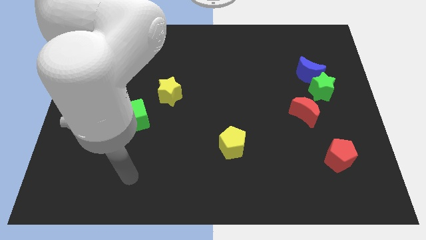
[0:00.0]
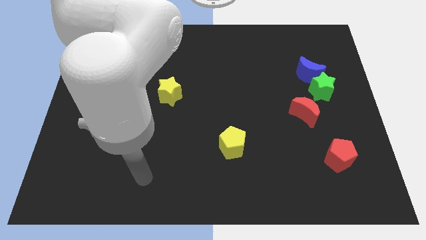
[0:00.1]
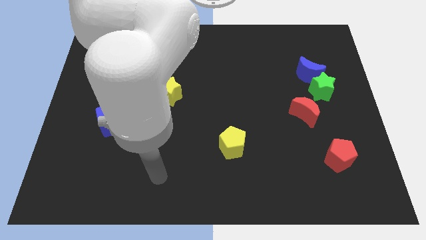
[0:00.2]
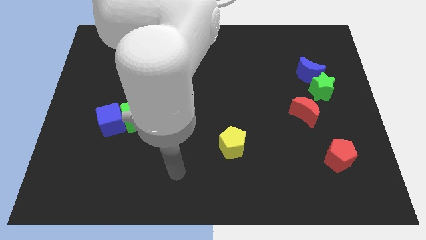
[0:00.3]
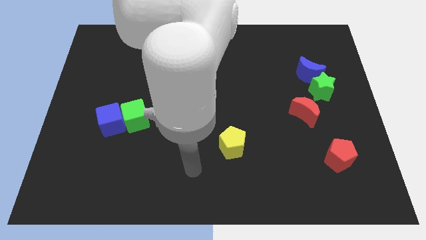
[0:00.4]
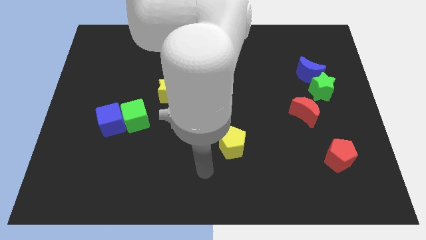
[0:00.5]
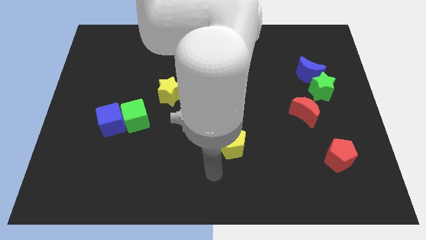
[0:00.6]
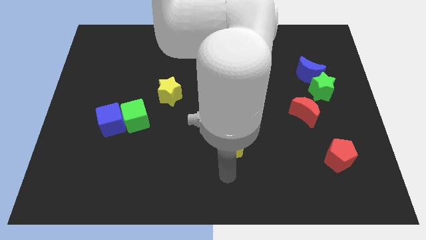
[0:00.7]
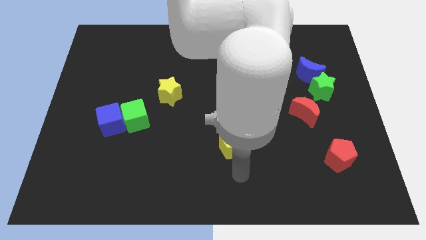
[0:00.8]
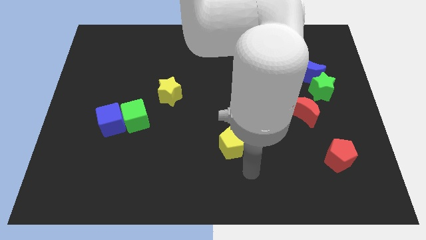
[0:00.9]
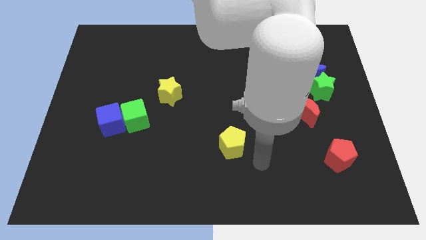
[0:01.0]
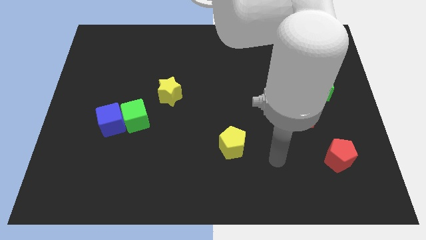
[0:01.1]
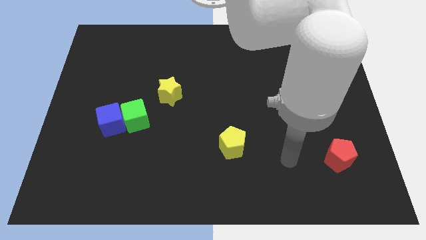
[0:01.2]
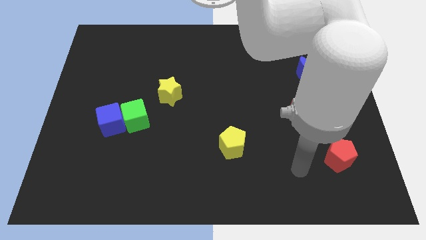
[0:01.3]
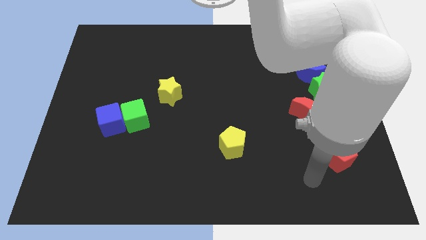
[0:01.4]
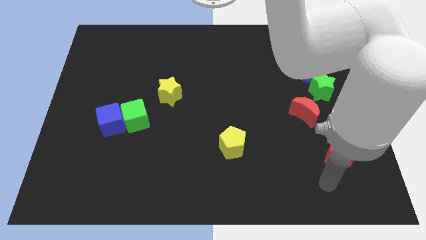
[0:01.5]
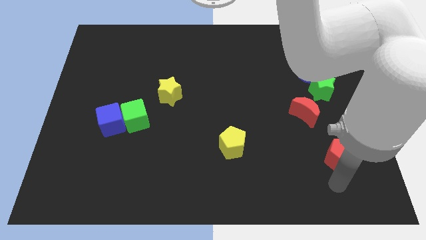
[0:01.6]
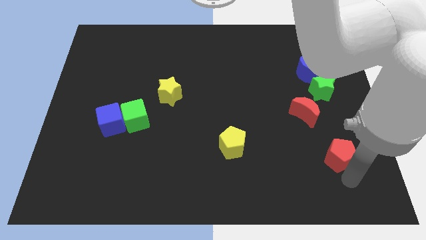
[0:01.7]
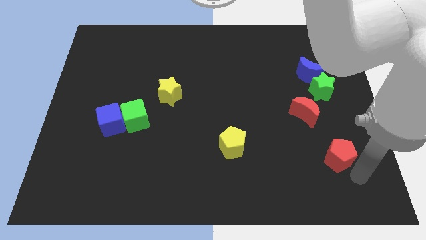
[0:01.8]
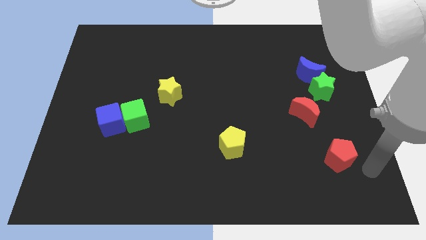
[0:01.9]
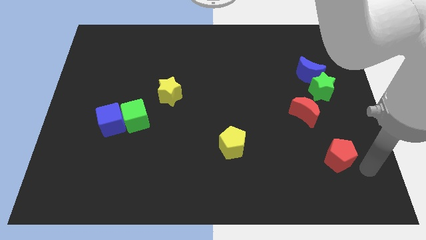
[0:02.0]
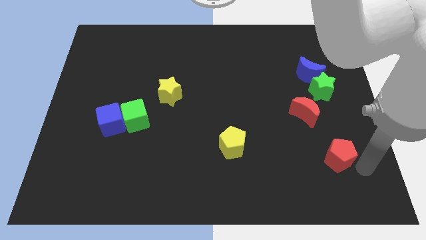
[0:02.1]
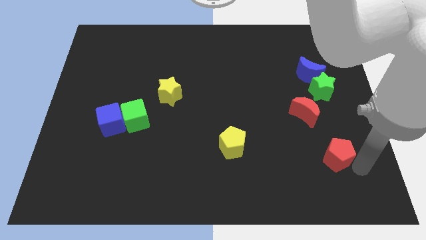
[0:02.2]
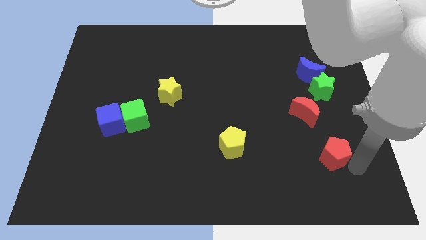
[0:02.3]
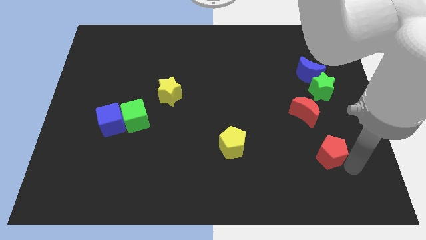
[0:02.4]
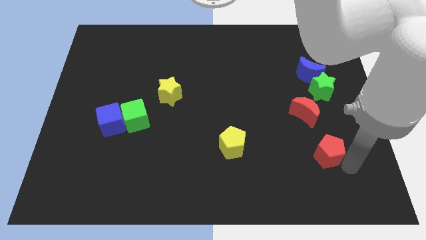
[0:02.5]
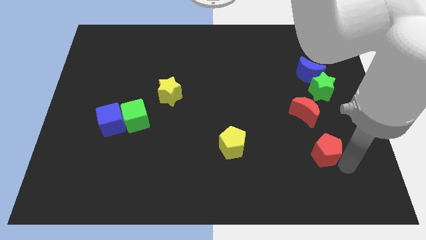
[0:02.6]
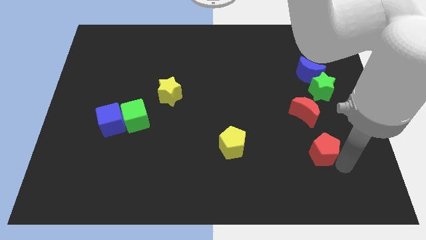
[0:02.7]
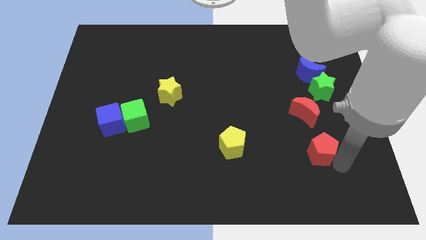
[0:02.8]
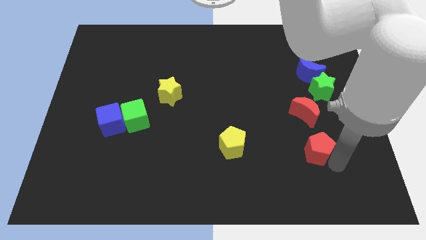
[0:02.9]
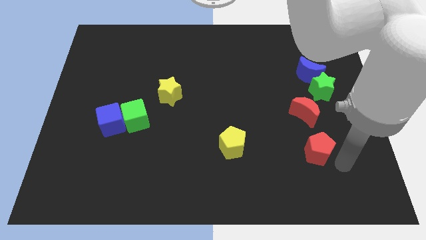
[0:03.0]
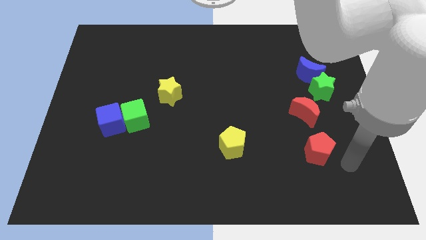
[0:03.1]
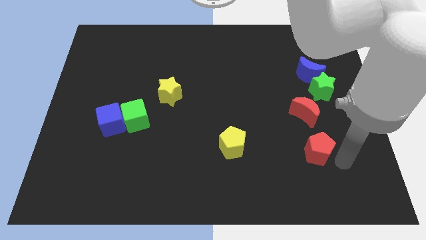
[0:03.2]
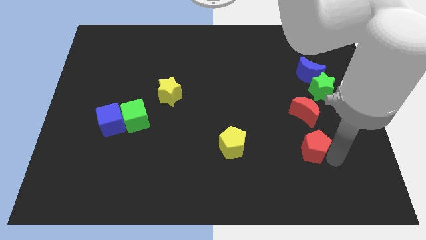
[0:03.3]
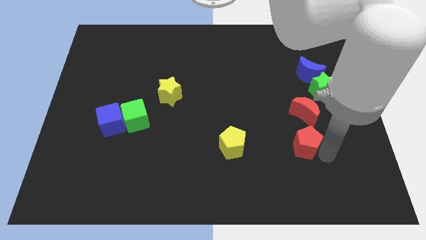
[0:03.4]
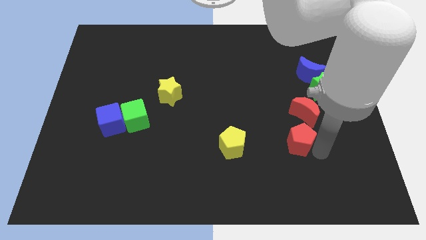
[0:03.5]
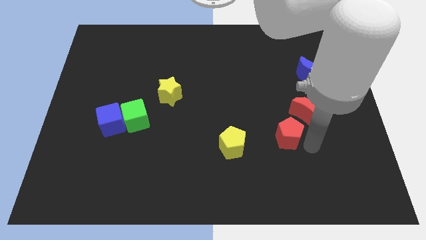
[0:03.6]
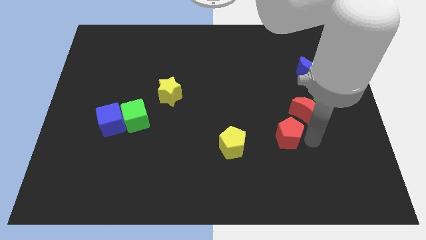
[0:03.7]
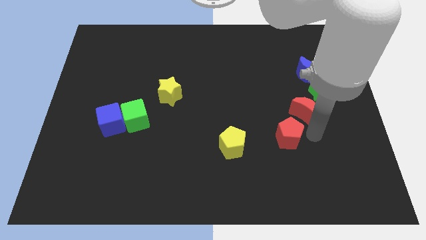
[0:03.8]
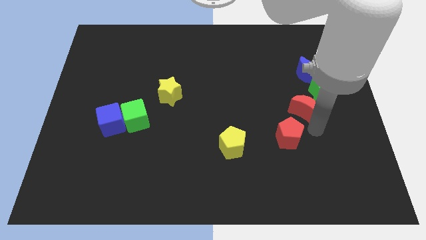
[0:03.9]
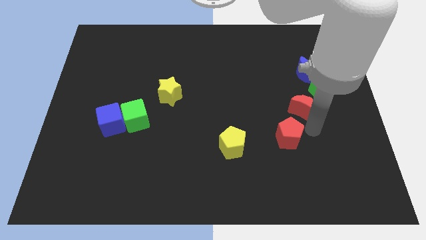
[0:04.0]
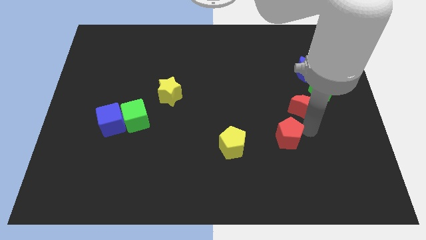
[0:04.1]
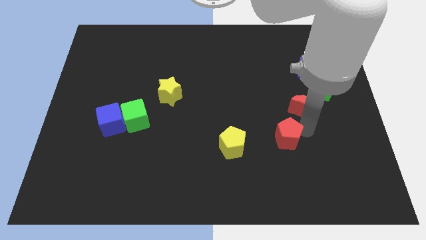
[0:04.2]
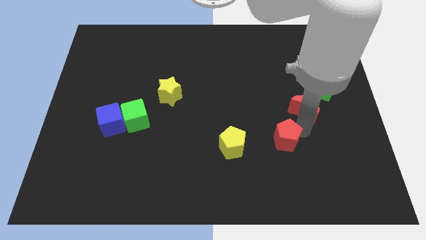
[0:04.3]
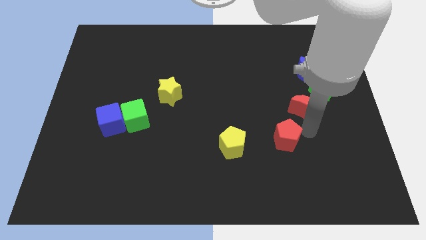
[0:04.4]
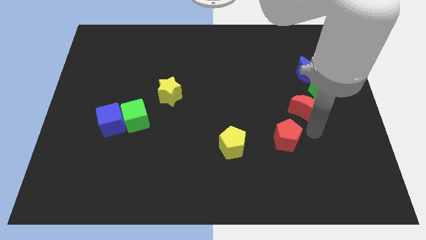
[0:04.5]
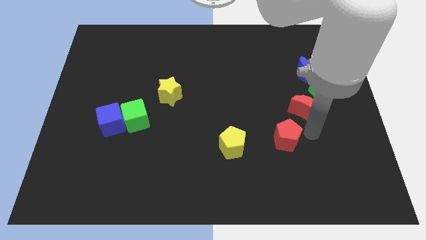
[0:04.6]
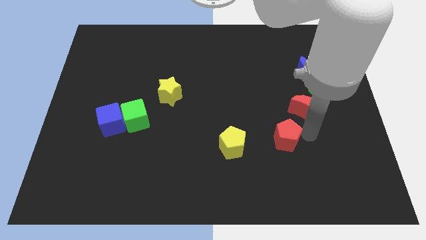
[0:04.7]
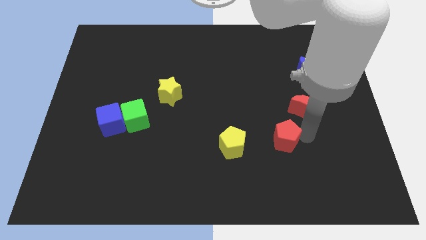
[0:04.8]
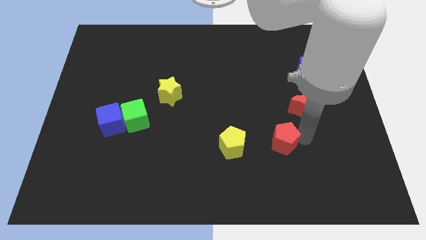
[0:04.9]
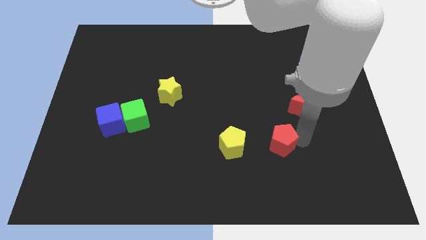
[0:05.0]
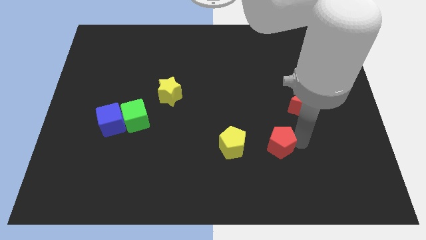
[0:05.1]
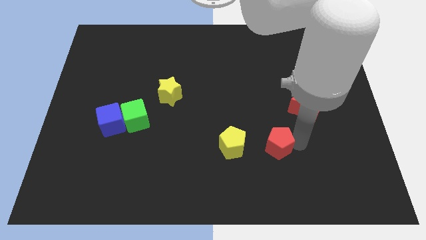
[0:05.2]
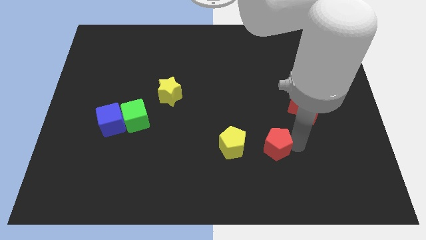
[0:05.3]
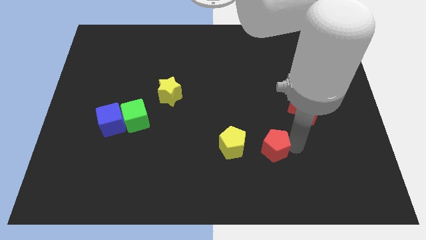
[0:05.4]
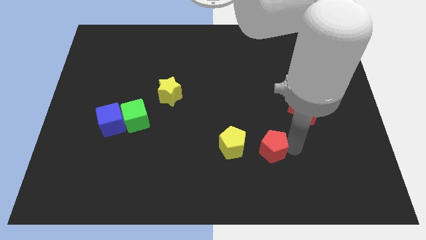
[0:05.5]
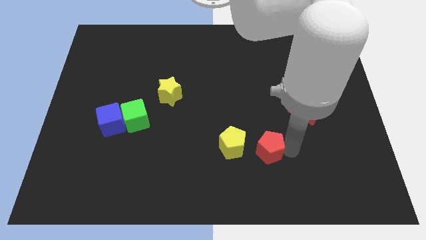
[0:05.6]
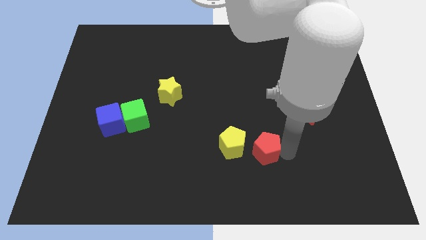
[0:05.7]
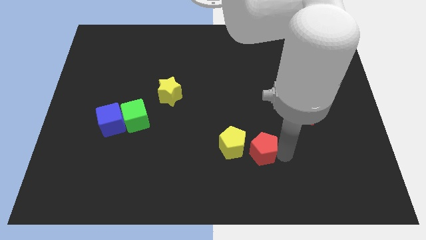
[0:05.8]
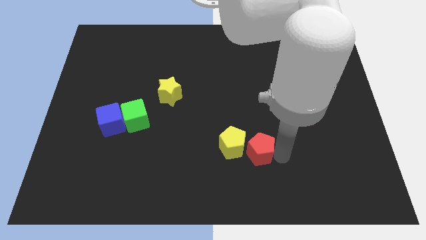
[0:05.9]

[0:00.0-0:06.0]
move the red pentagon next to the yellow pentagon
